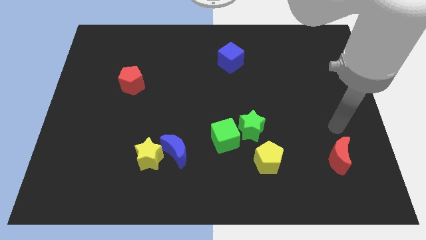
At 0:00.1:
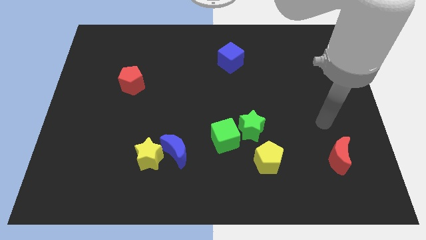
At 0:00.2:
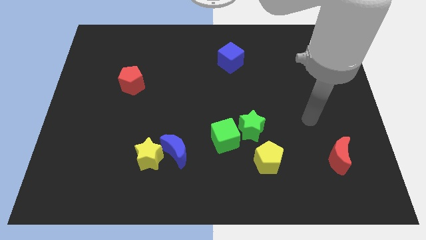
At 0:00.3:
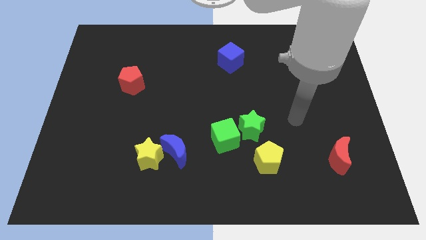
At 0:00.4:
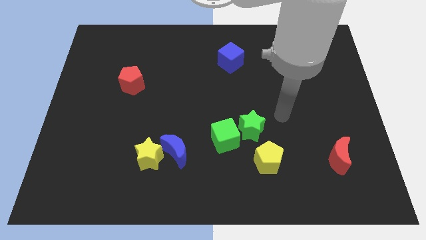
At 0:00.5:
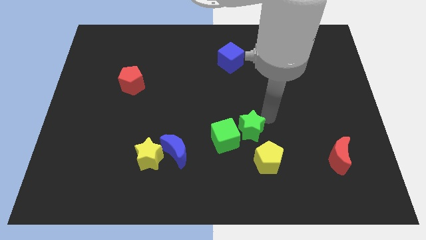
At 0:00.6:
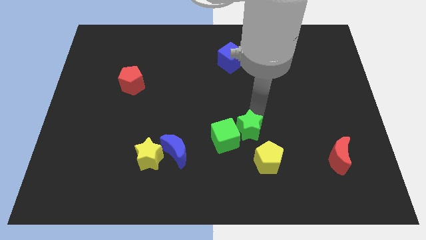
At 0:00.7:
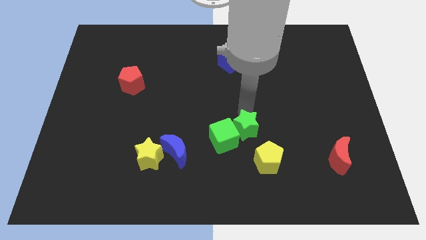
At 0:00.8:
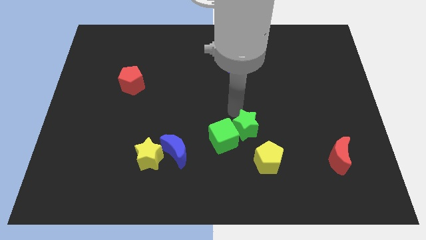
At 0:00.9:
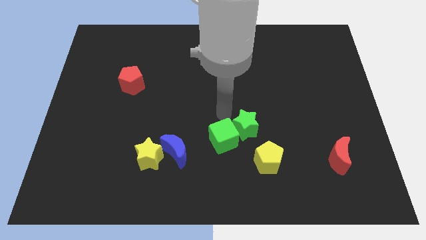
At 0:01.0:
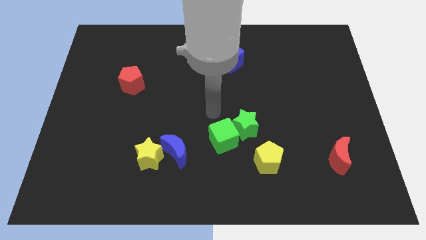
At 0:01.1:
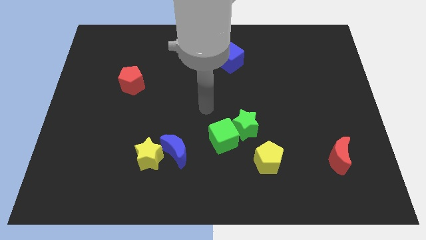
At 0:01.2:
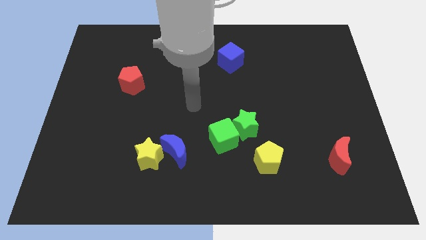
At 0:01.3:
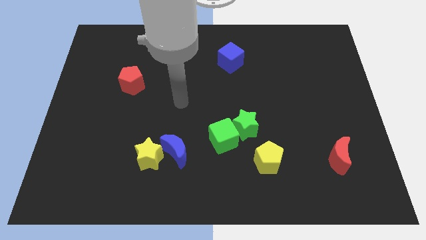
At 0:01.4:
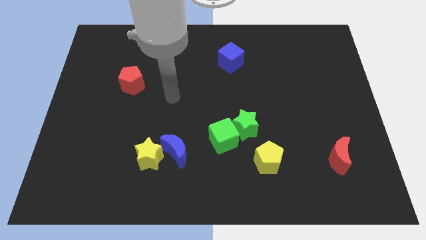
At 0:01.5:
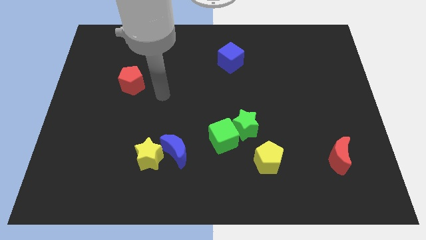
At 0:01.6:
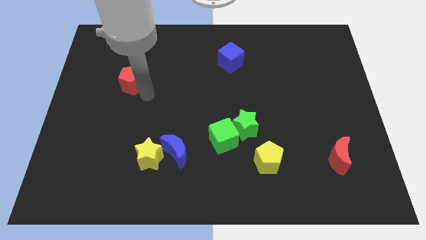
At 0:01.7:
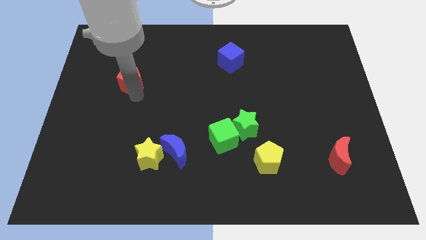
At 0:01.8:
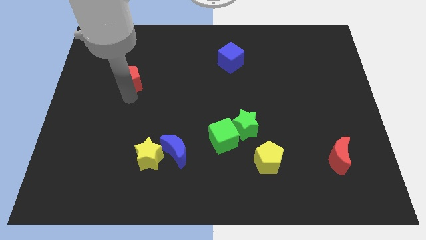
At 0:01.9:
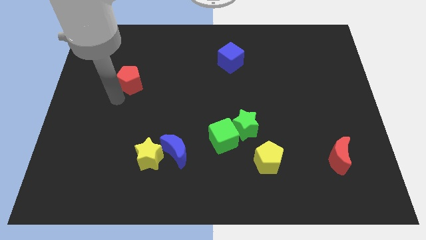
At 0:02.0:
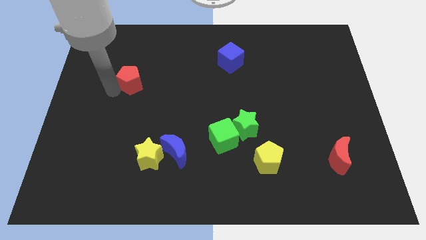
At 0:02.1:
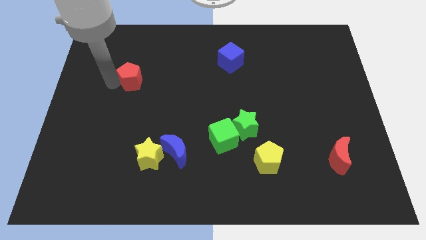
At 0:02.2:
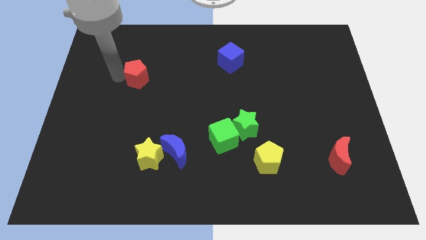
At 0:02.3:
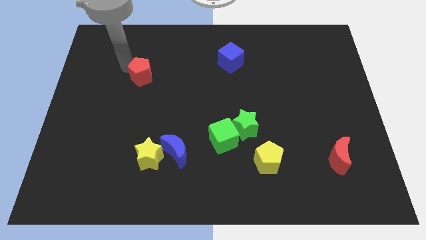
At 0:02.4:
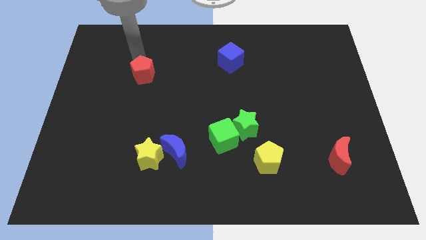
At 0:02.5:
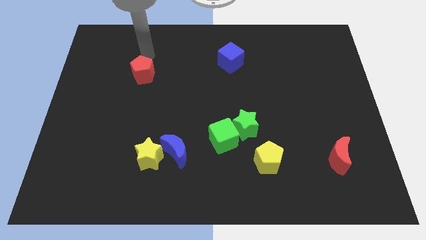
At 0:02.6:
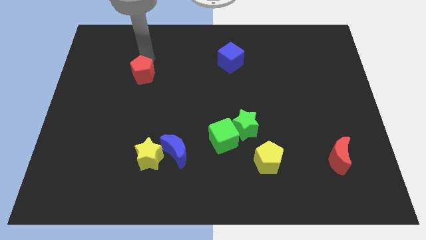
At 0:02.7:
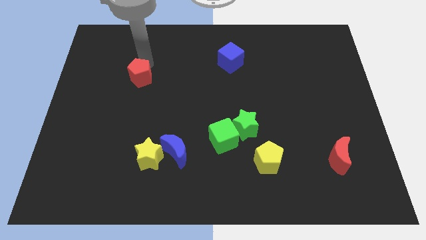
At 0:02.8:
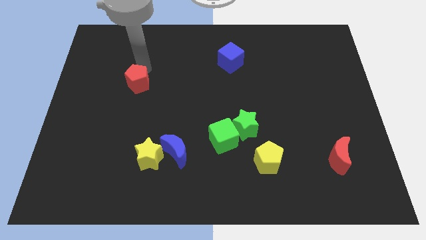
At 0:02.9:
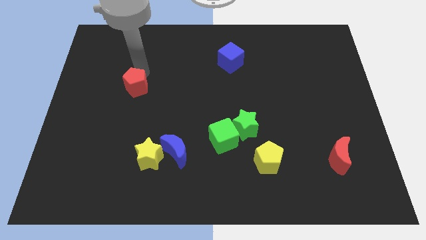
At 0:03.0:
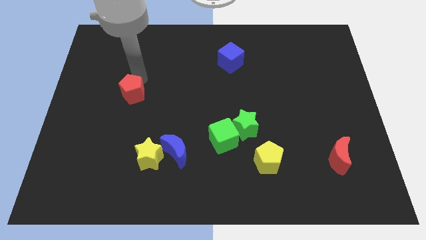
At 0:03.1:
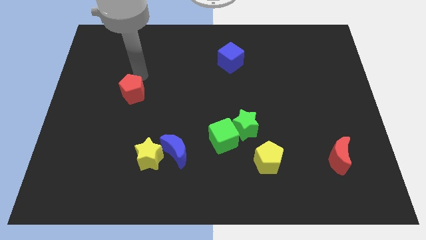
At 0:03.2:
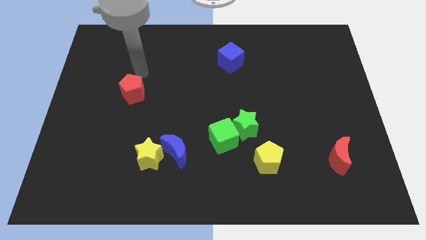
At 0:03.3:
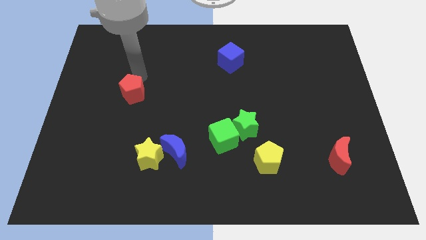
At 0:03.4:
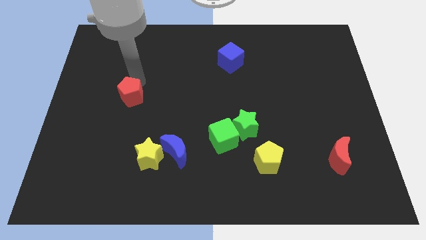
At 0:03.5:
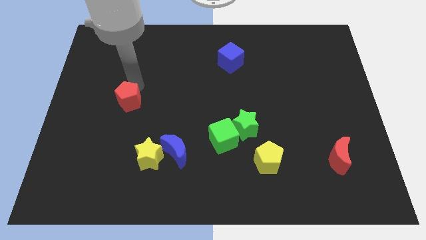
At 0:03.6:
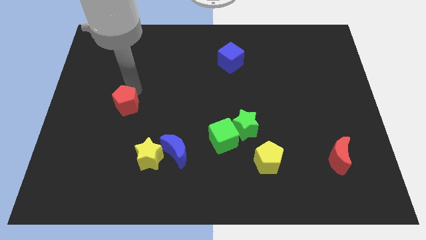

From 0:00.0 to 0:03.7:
slightly slide the red pentagon downwards

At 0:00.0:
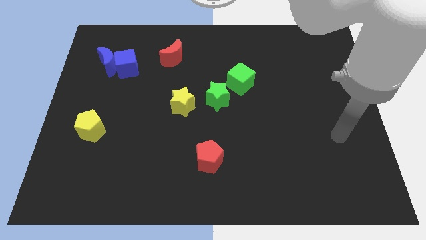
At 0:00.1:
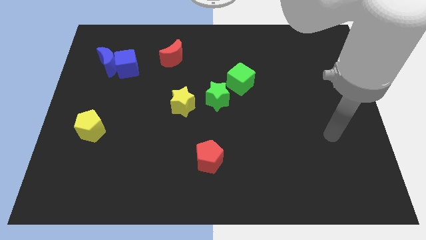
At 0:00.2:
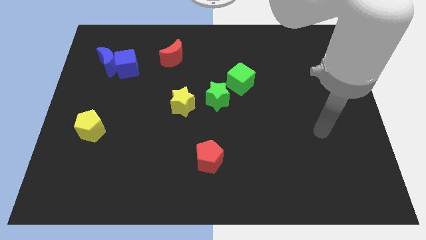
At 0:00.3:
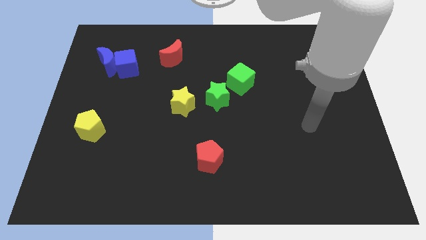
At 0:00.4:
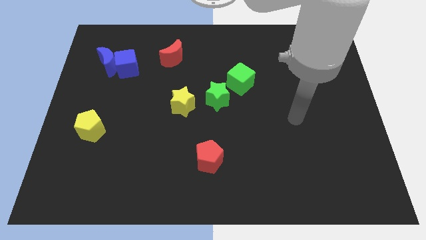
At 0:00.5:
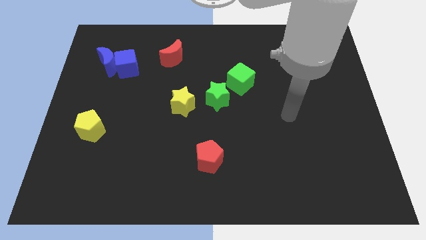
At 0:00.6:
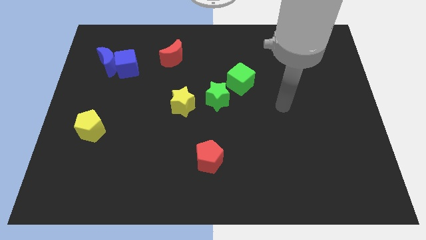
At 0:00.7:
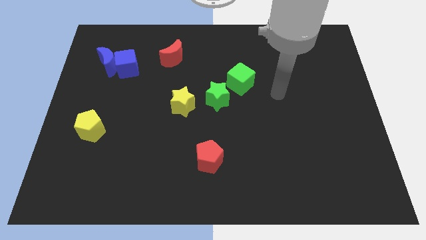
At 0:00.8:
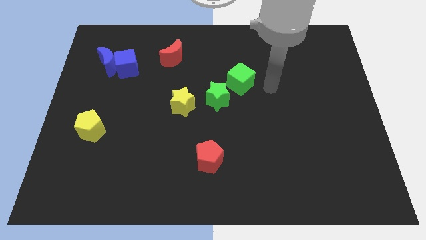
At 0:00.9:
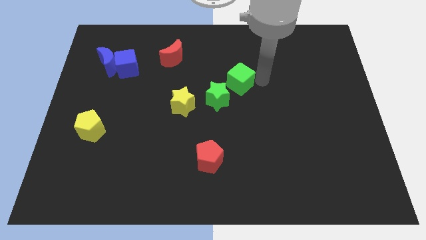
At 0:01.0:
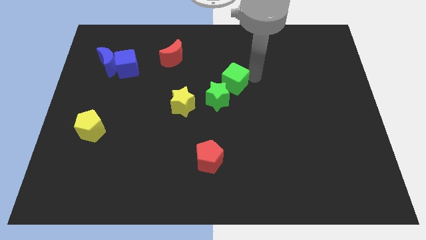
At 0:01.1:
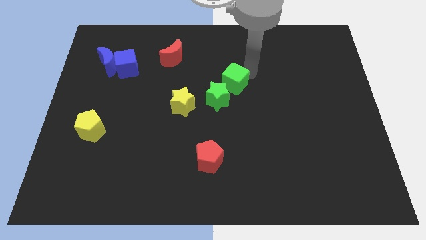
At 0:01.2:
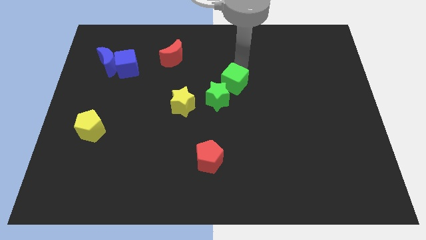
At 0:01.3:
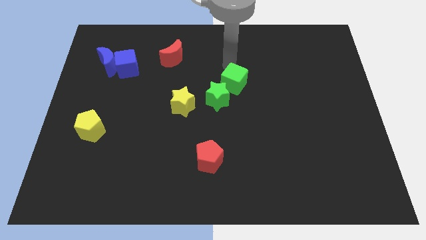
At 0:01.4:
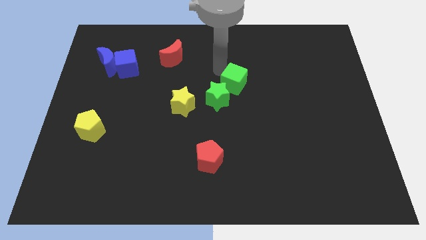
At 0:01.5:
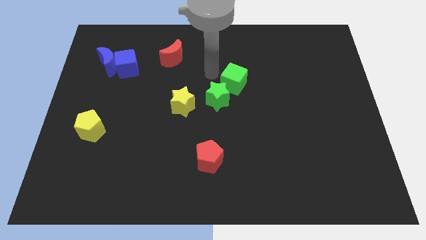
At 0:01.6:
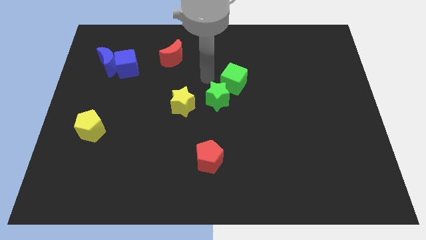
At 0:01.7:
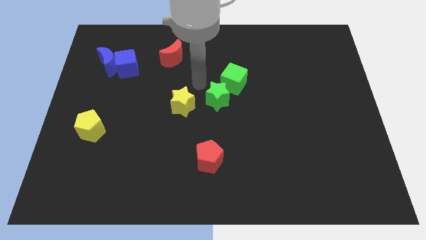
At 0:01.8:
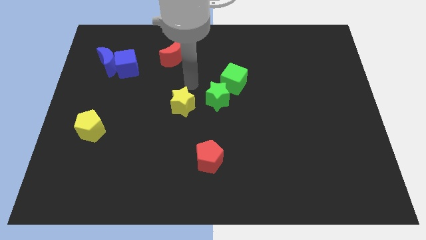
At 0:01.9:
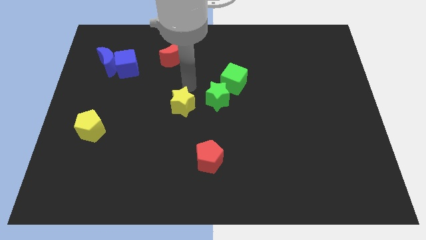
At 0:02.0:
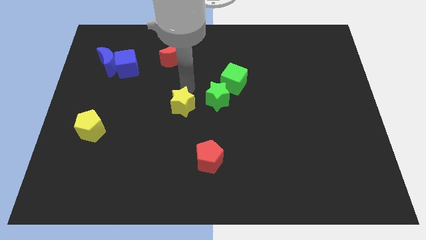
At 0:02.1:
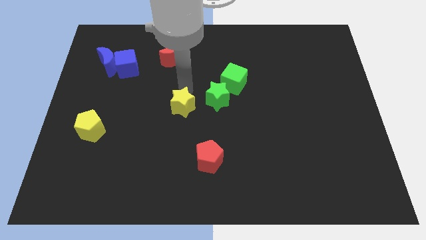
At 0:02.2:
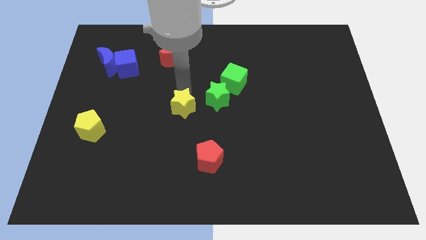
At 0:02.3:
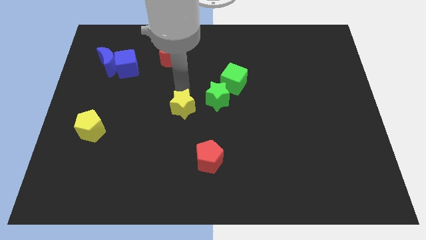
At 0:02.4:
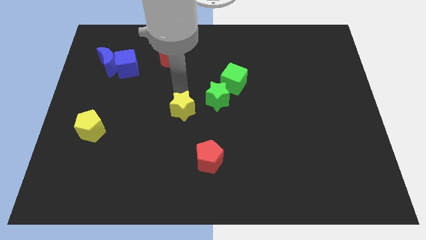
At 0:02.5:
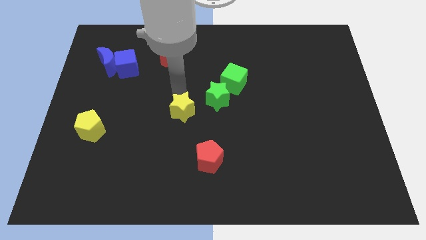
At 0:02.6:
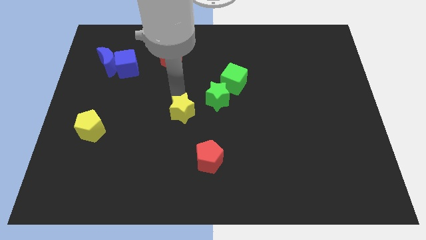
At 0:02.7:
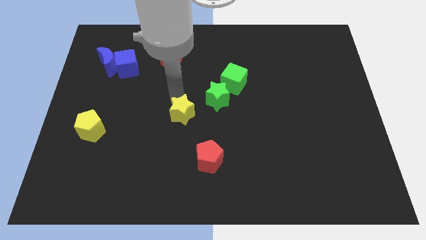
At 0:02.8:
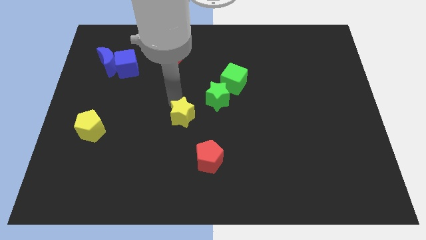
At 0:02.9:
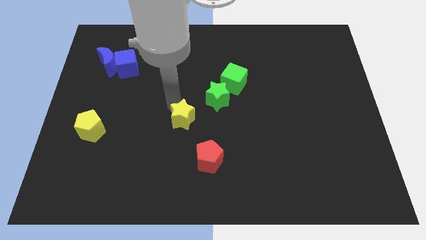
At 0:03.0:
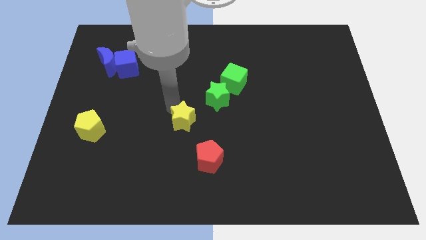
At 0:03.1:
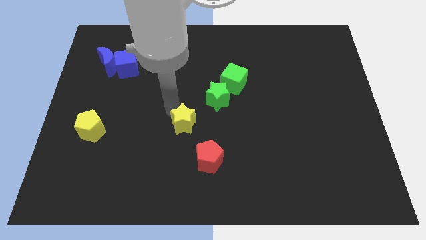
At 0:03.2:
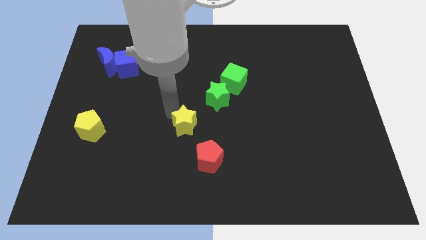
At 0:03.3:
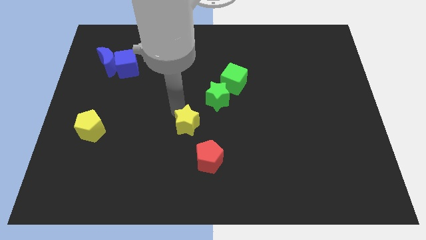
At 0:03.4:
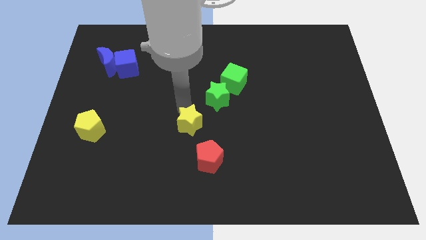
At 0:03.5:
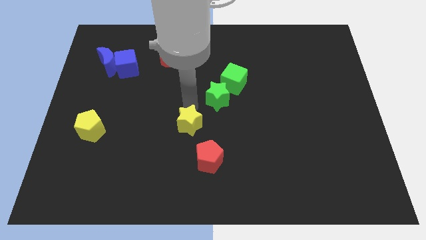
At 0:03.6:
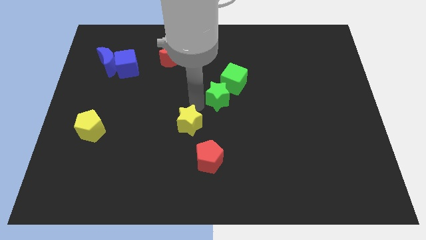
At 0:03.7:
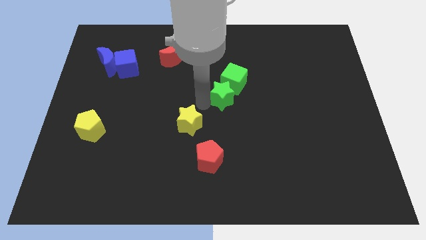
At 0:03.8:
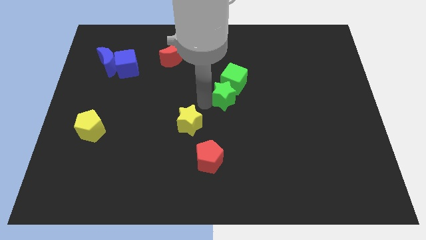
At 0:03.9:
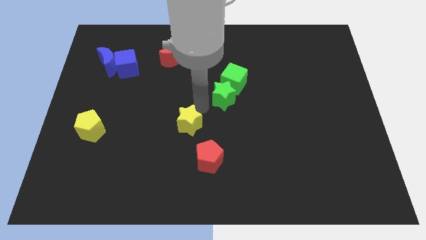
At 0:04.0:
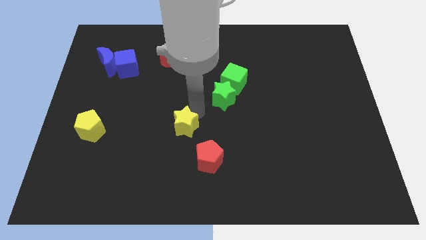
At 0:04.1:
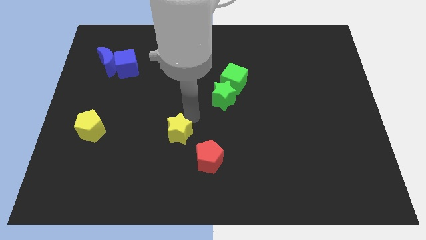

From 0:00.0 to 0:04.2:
slightly slide the yellow star down
